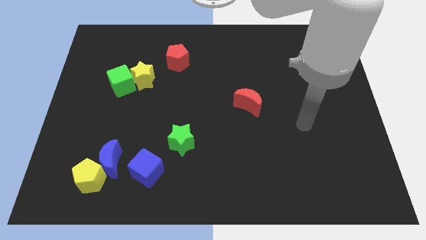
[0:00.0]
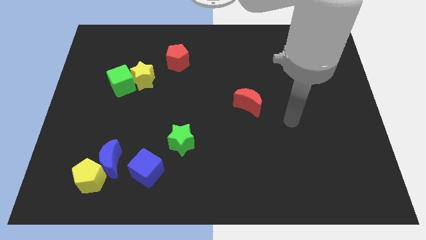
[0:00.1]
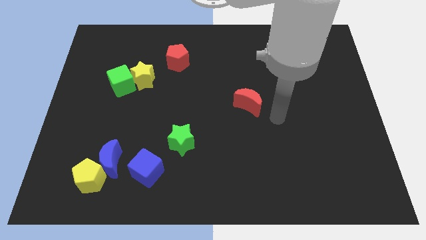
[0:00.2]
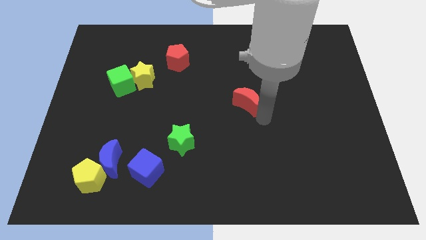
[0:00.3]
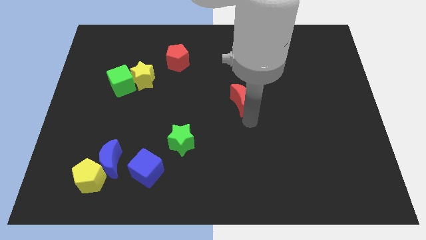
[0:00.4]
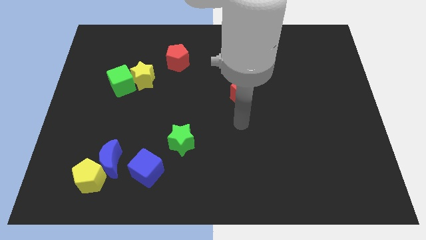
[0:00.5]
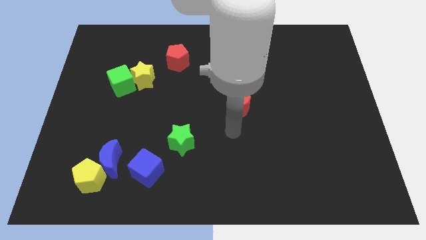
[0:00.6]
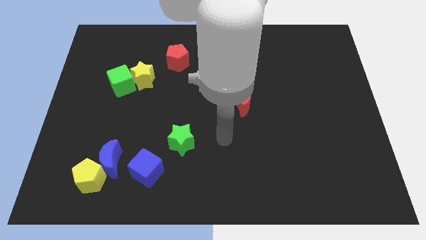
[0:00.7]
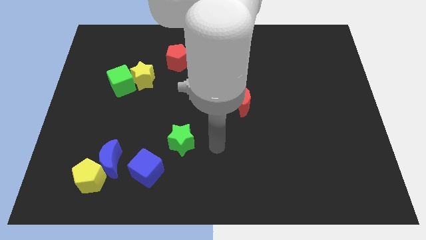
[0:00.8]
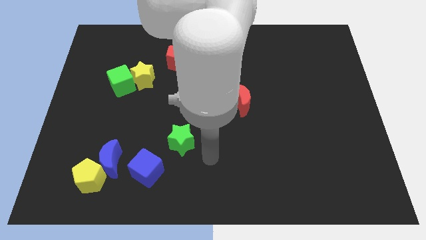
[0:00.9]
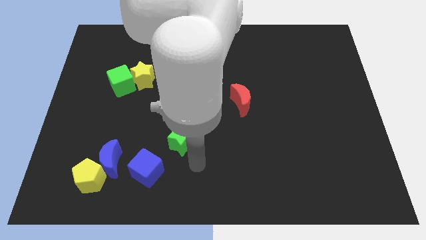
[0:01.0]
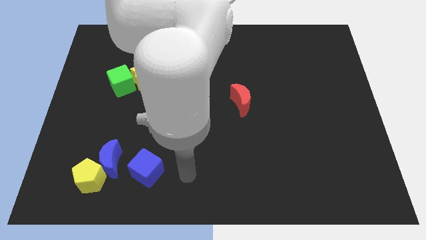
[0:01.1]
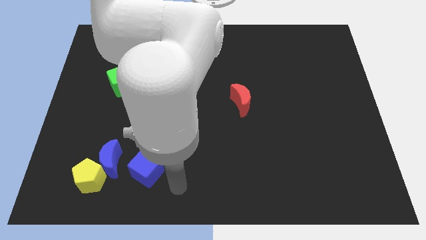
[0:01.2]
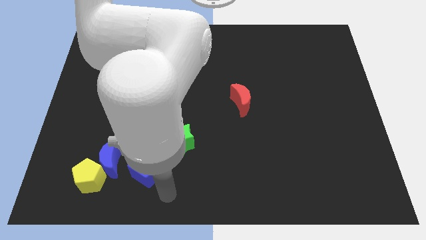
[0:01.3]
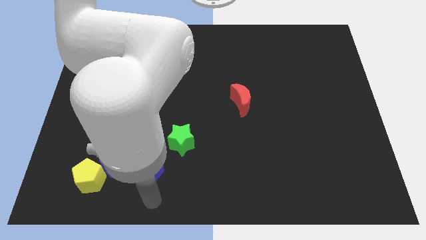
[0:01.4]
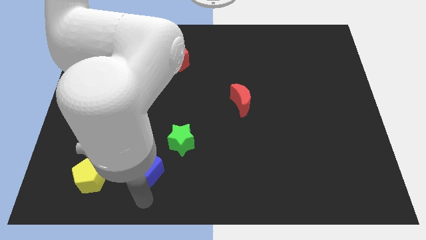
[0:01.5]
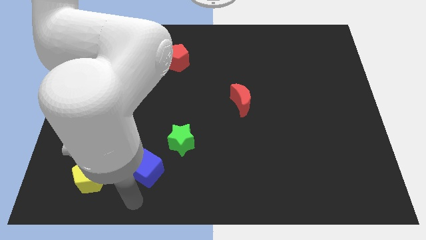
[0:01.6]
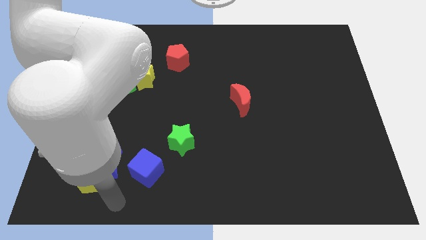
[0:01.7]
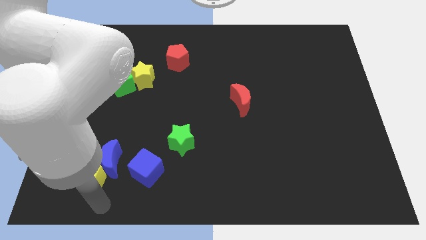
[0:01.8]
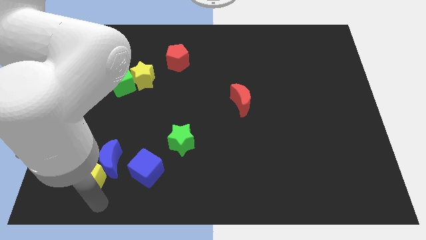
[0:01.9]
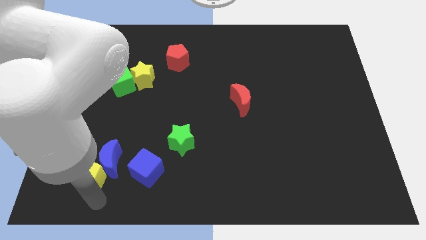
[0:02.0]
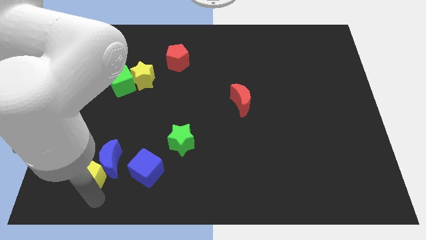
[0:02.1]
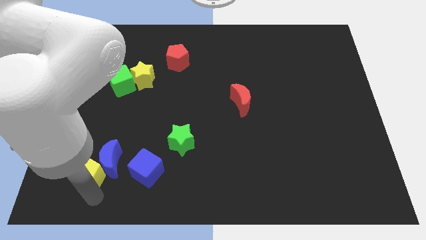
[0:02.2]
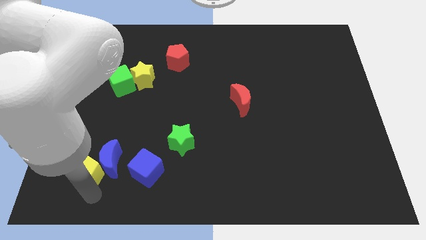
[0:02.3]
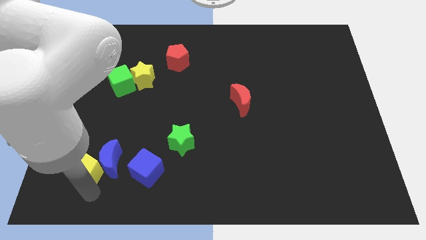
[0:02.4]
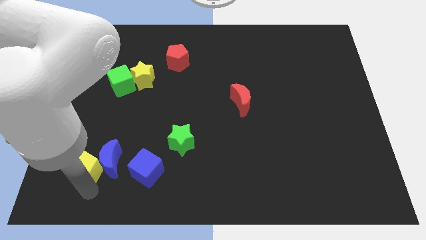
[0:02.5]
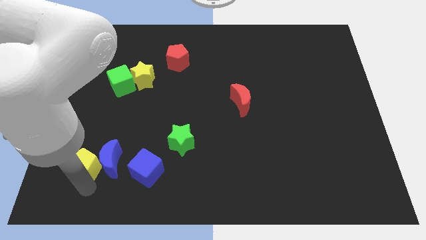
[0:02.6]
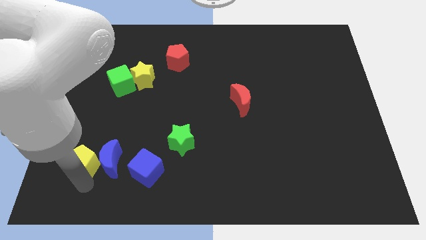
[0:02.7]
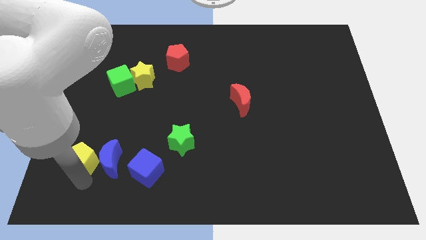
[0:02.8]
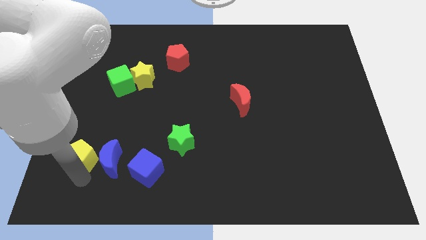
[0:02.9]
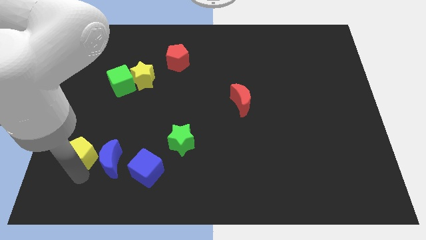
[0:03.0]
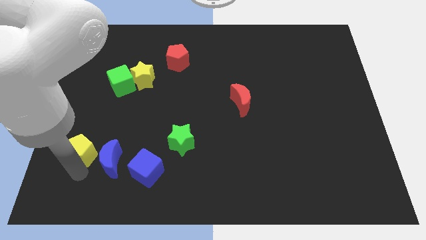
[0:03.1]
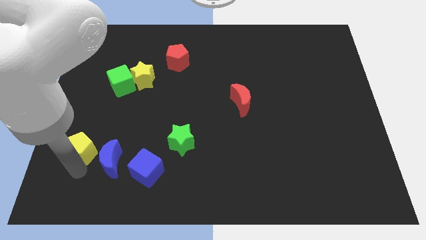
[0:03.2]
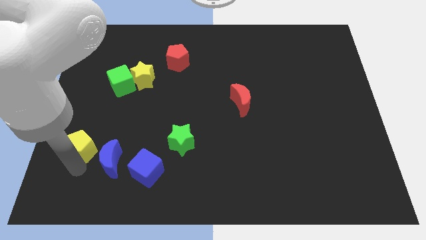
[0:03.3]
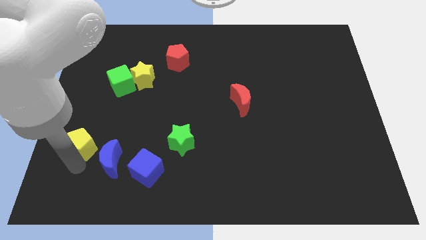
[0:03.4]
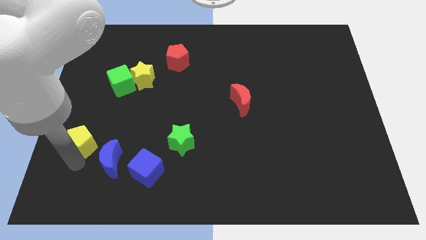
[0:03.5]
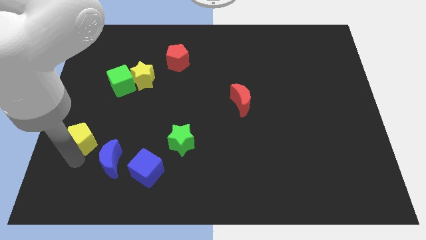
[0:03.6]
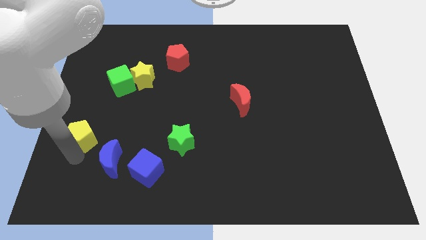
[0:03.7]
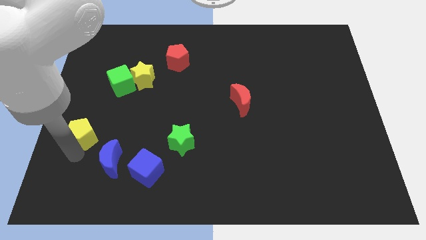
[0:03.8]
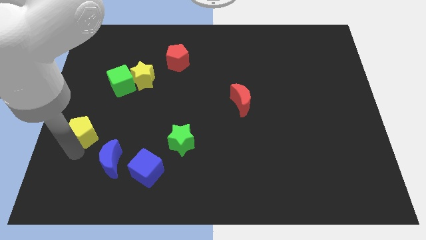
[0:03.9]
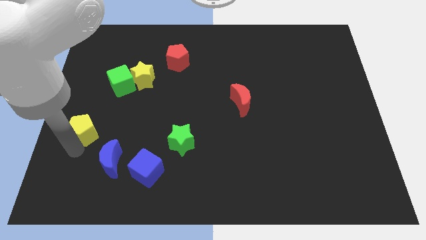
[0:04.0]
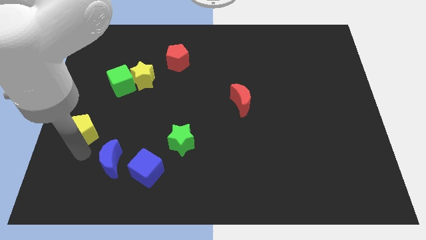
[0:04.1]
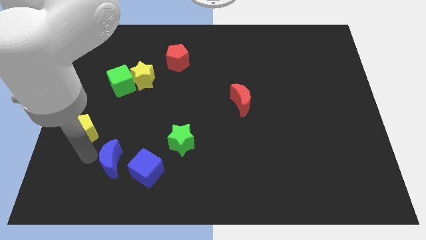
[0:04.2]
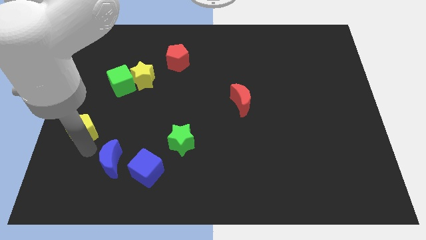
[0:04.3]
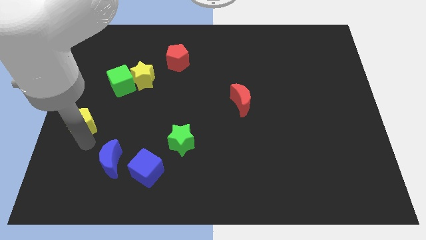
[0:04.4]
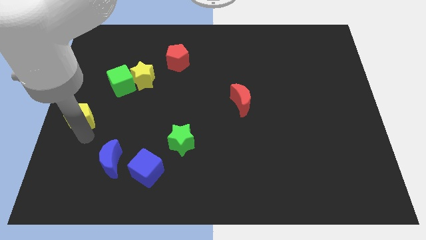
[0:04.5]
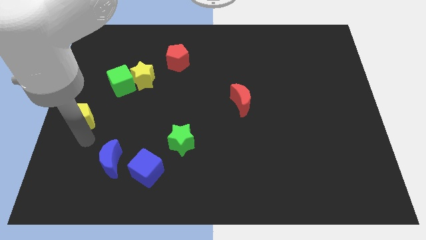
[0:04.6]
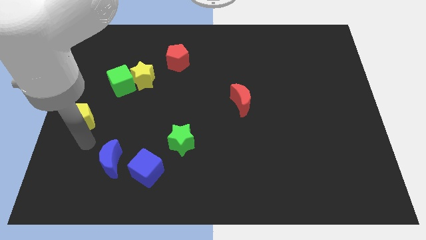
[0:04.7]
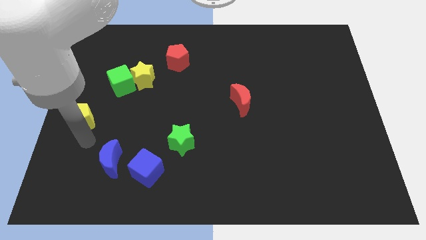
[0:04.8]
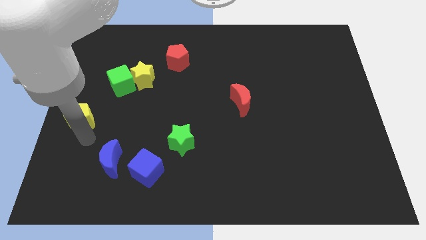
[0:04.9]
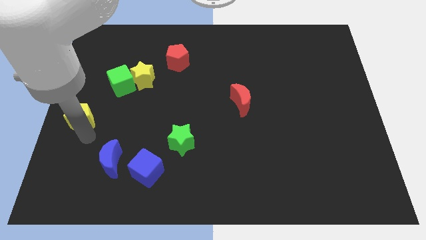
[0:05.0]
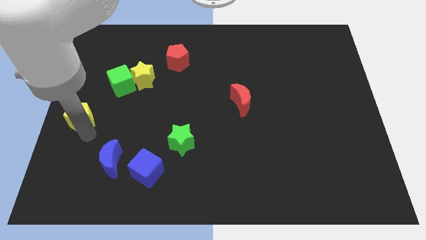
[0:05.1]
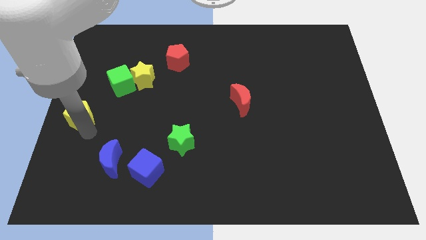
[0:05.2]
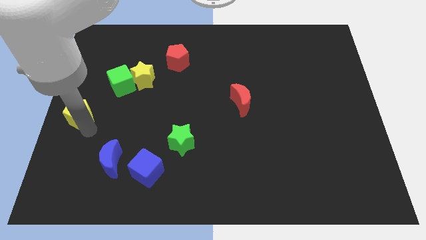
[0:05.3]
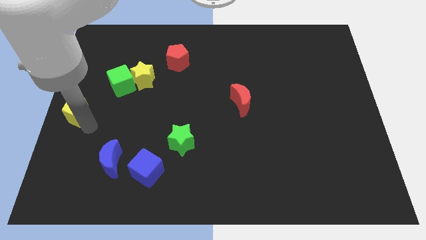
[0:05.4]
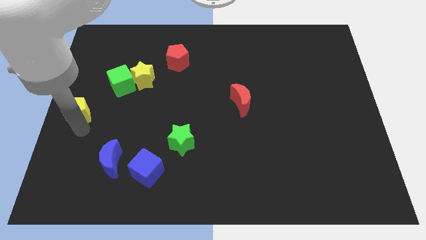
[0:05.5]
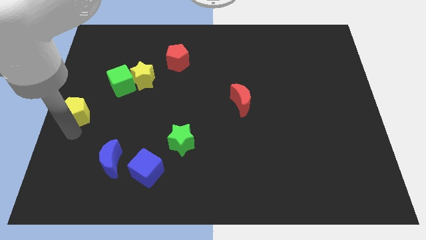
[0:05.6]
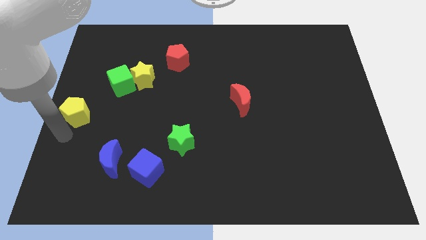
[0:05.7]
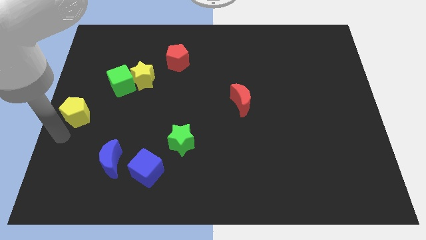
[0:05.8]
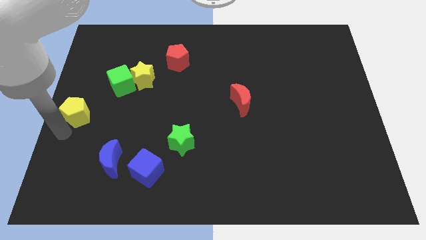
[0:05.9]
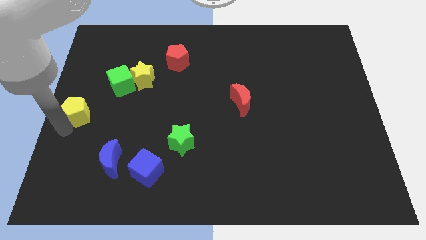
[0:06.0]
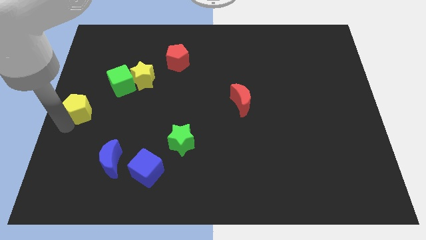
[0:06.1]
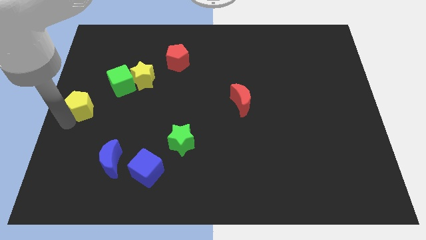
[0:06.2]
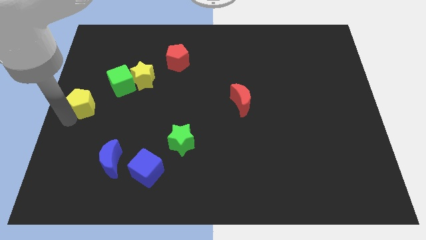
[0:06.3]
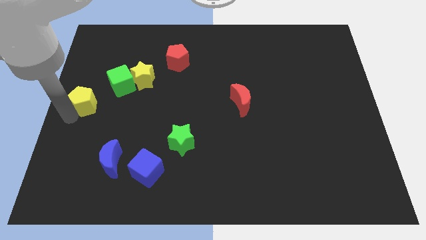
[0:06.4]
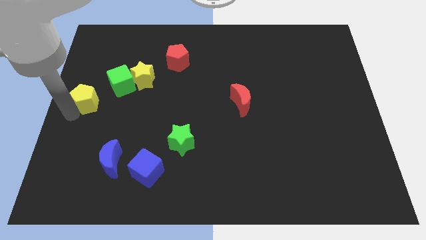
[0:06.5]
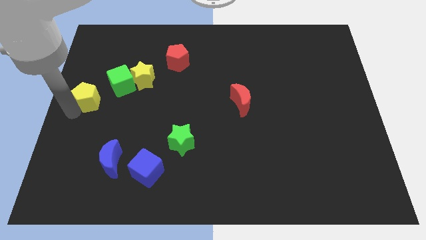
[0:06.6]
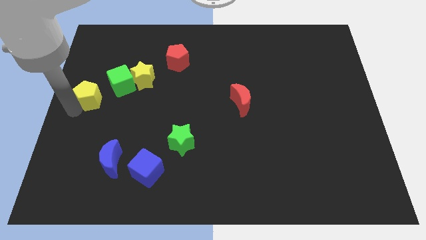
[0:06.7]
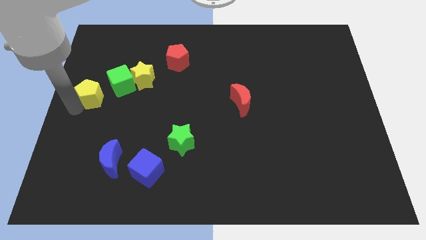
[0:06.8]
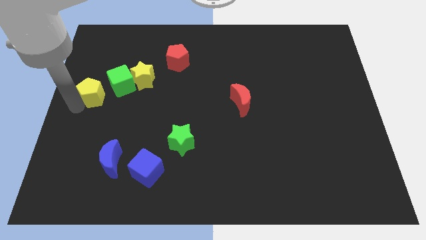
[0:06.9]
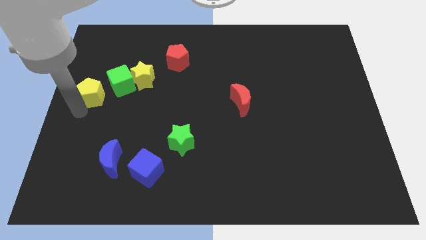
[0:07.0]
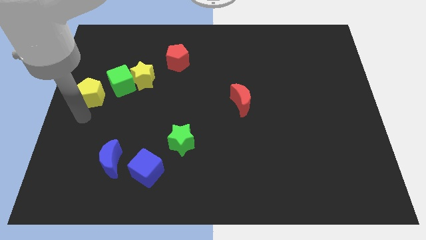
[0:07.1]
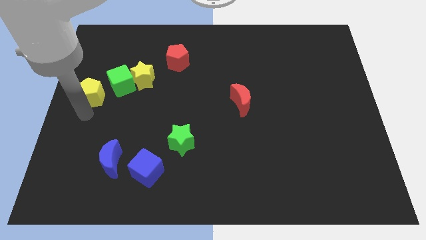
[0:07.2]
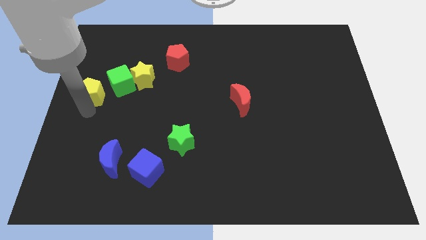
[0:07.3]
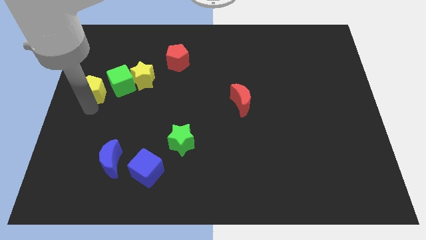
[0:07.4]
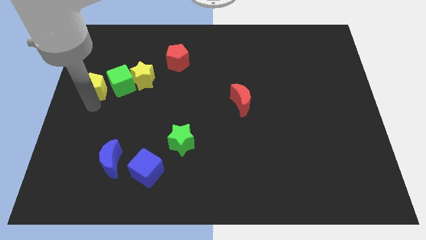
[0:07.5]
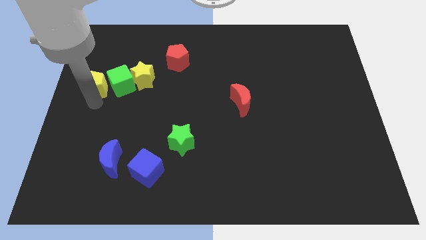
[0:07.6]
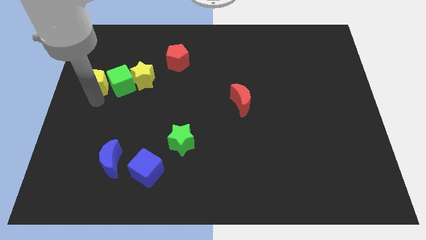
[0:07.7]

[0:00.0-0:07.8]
push the yellow pentagon to the top left of the green cube
